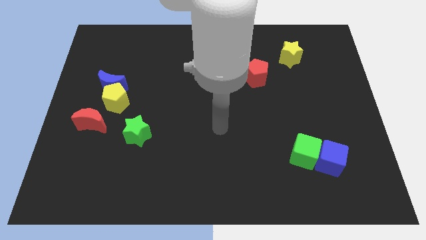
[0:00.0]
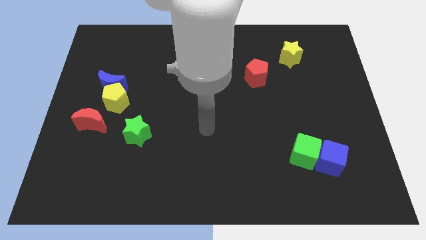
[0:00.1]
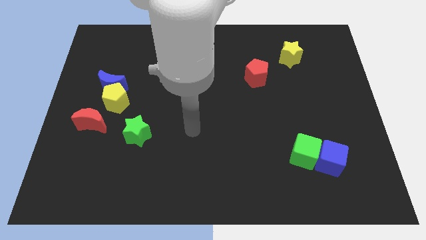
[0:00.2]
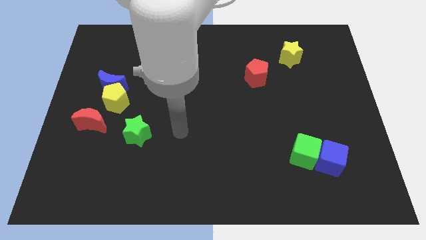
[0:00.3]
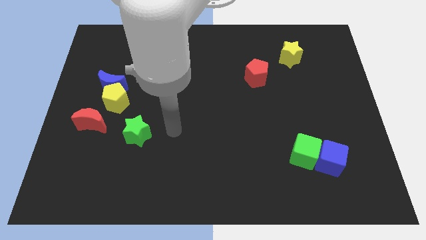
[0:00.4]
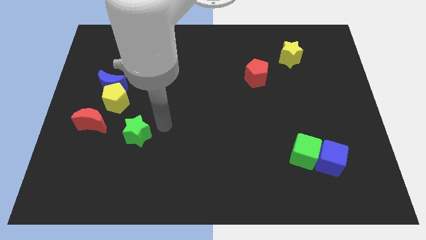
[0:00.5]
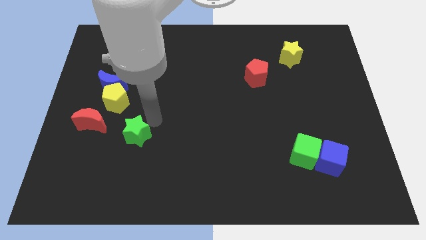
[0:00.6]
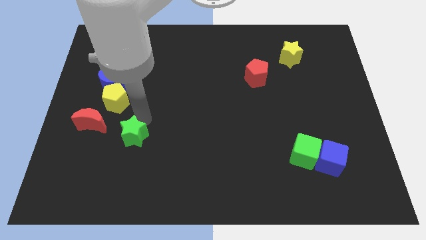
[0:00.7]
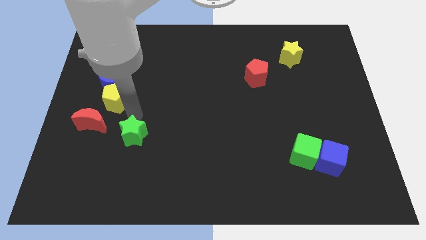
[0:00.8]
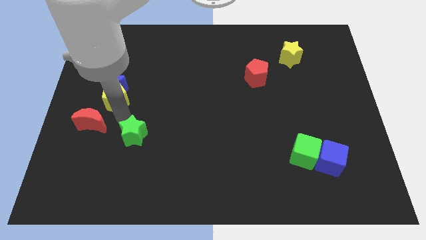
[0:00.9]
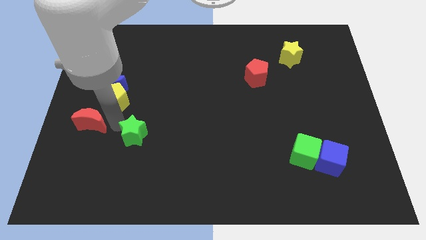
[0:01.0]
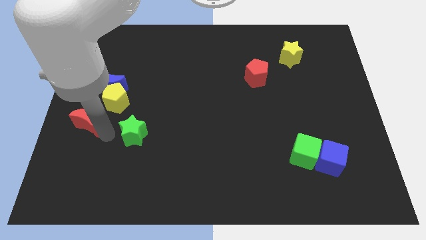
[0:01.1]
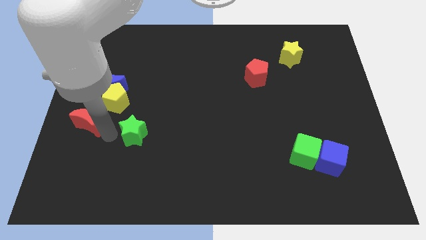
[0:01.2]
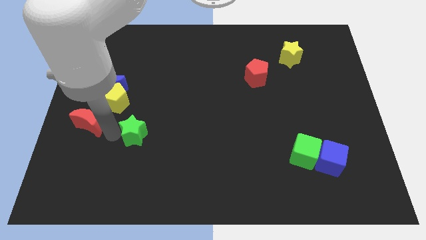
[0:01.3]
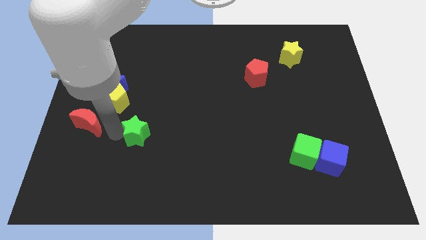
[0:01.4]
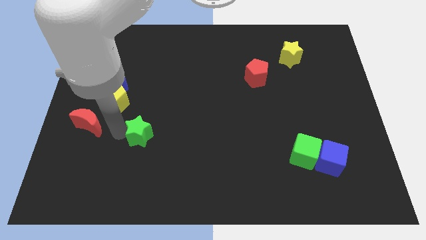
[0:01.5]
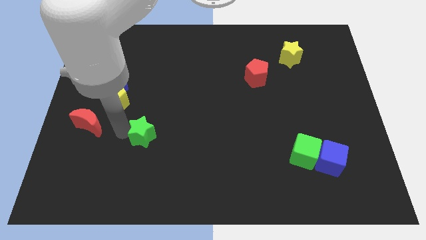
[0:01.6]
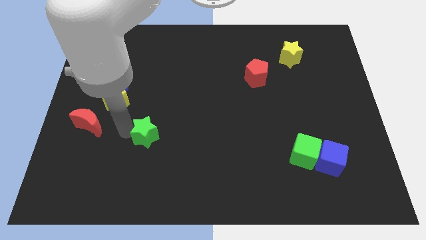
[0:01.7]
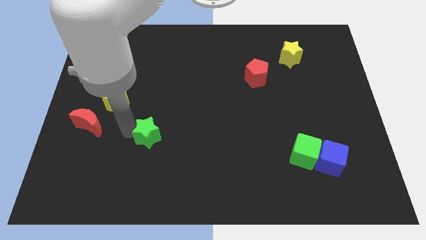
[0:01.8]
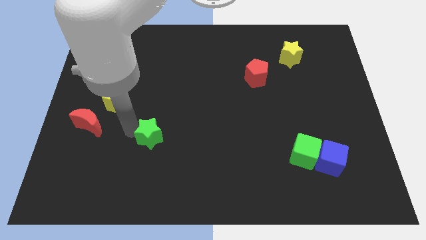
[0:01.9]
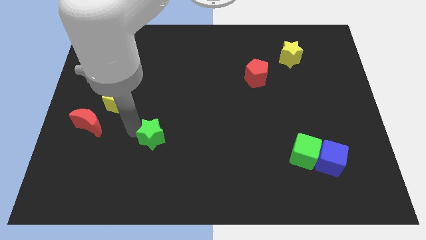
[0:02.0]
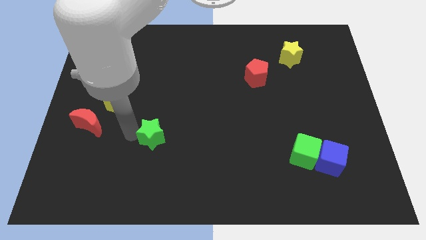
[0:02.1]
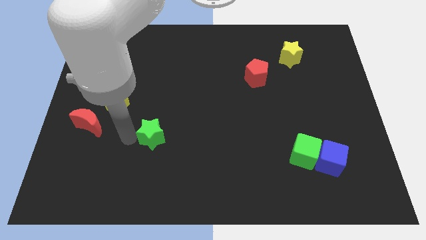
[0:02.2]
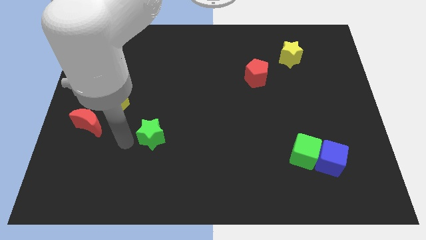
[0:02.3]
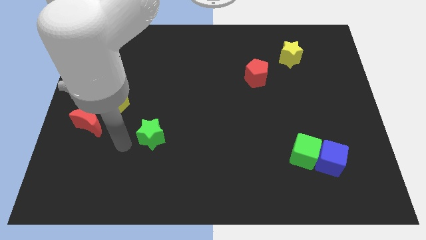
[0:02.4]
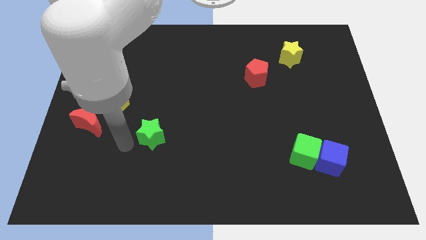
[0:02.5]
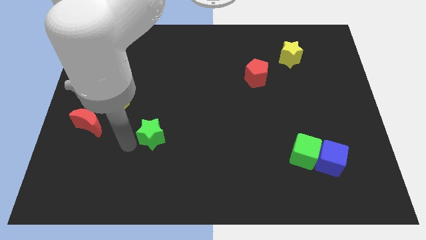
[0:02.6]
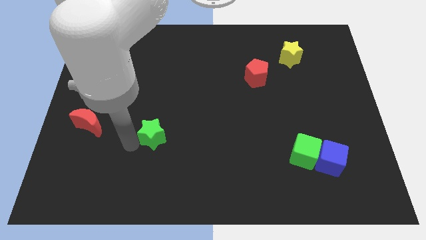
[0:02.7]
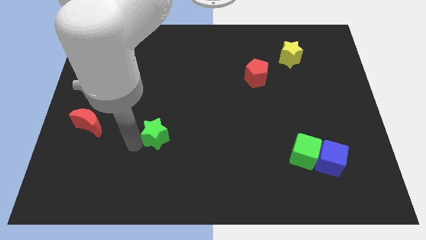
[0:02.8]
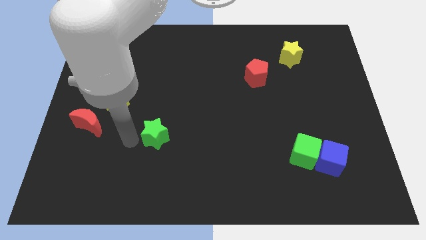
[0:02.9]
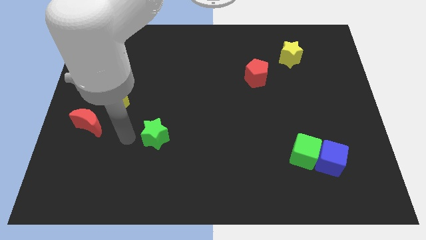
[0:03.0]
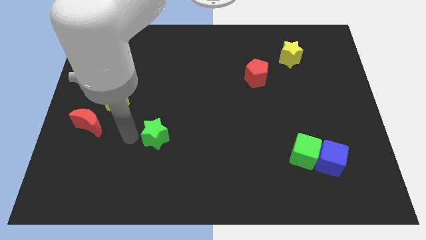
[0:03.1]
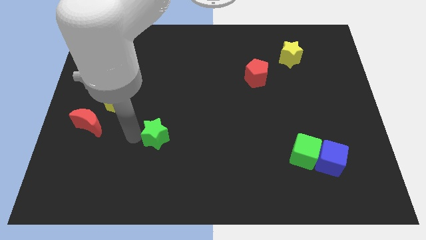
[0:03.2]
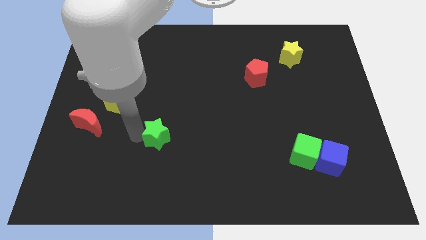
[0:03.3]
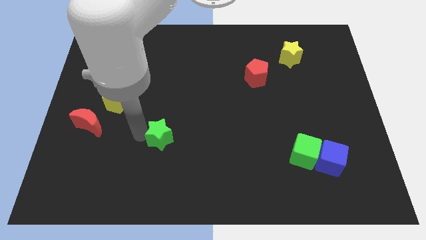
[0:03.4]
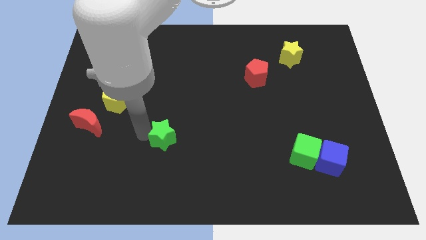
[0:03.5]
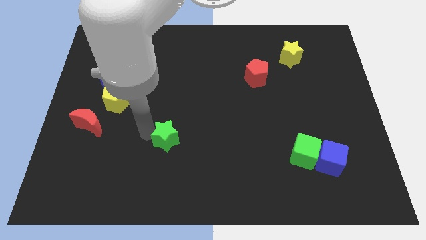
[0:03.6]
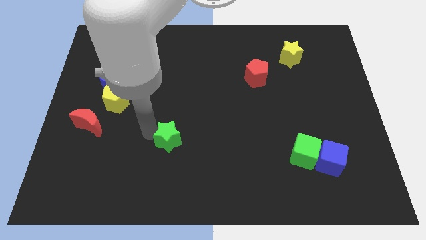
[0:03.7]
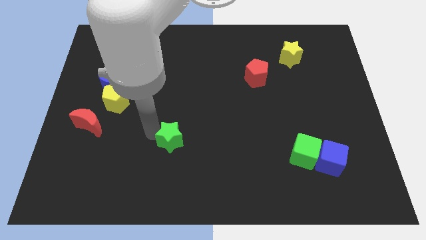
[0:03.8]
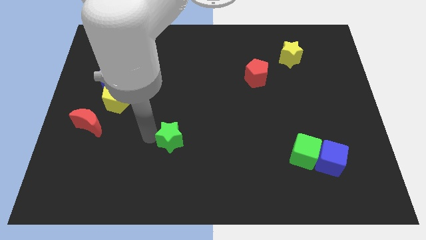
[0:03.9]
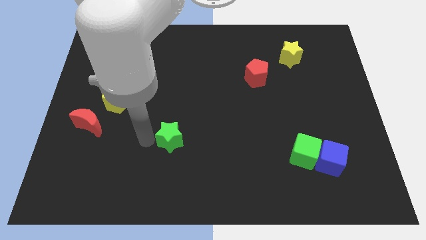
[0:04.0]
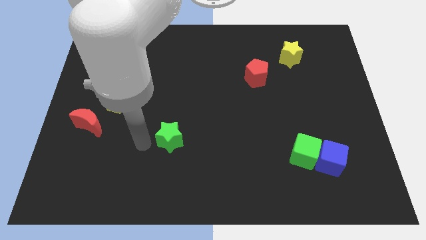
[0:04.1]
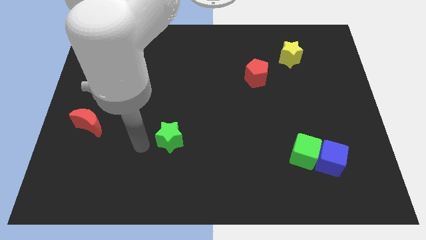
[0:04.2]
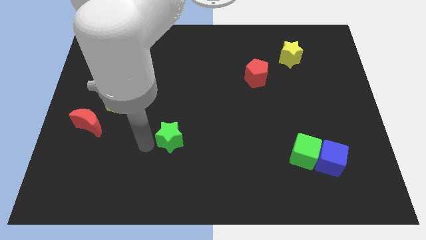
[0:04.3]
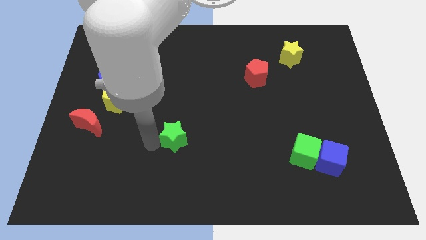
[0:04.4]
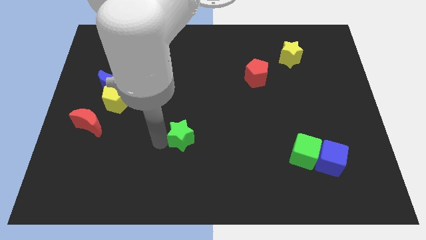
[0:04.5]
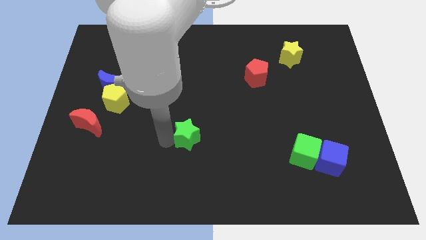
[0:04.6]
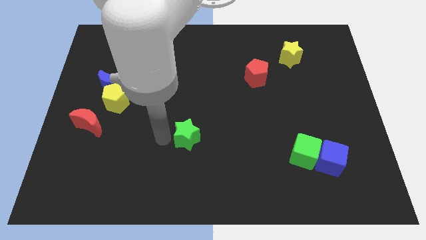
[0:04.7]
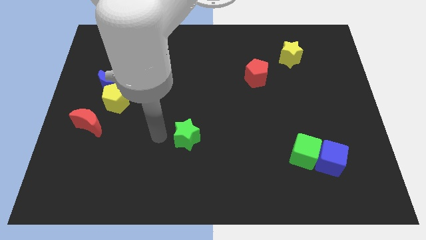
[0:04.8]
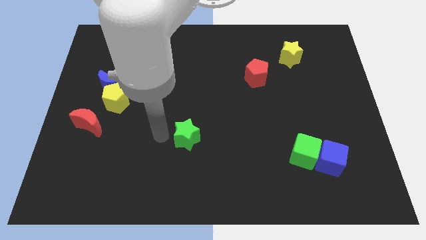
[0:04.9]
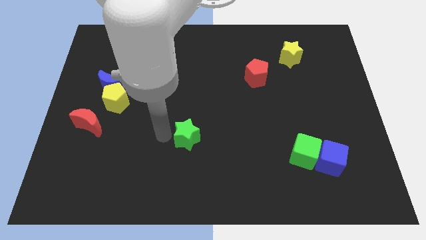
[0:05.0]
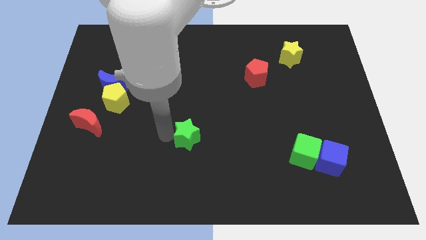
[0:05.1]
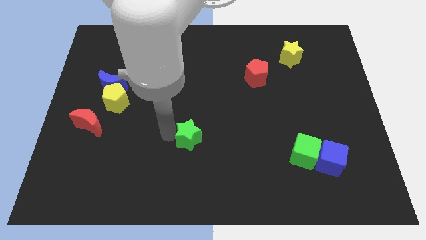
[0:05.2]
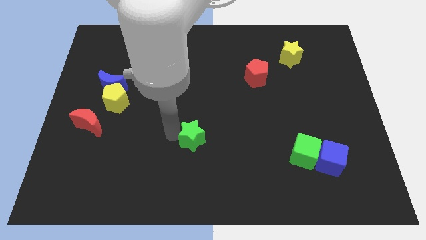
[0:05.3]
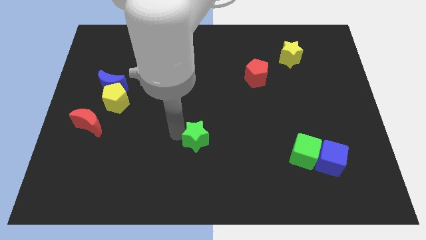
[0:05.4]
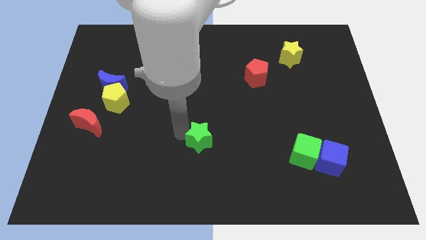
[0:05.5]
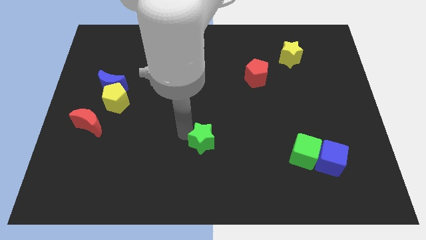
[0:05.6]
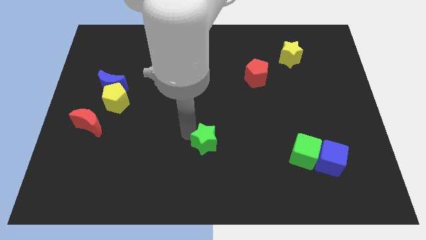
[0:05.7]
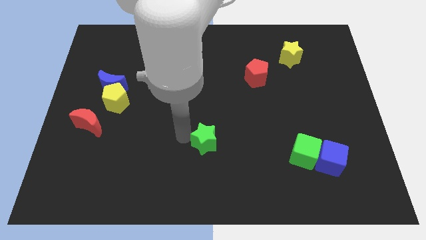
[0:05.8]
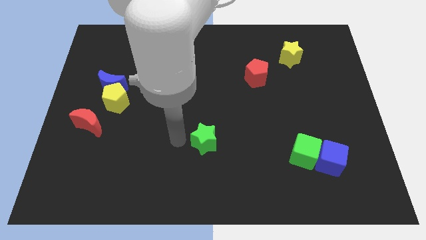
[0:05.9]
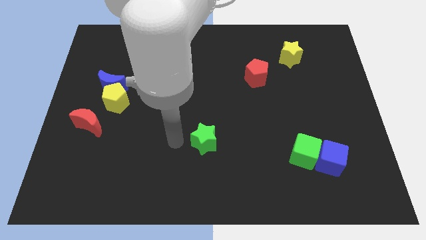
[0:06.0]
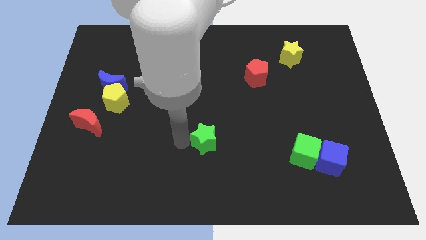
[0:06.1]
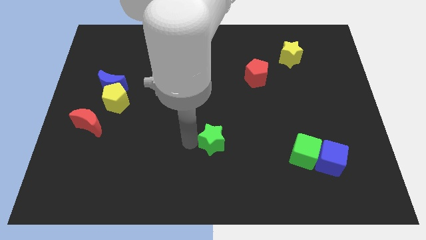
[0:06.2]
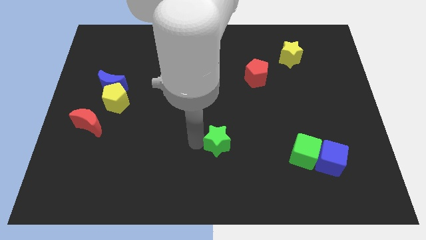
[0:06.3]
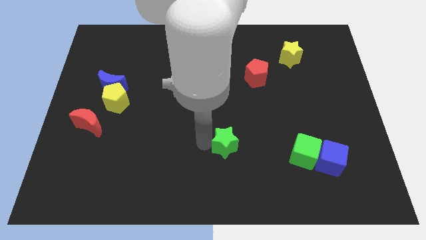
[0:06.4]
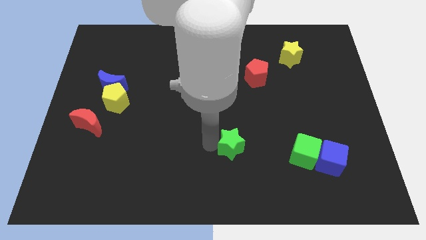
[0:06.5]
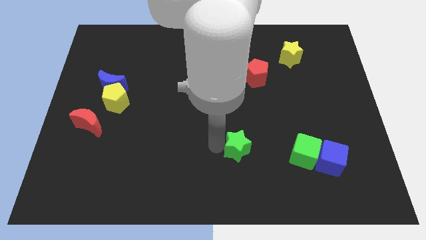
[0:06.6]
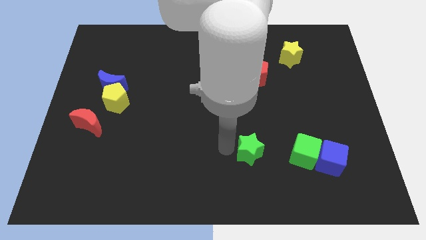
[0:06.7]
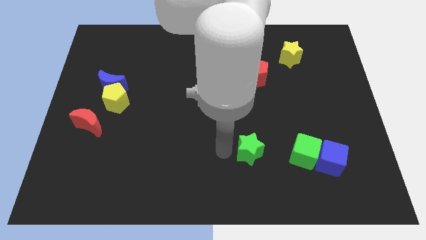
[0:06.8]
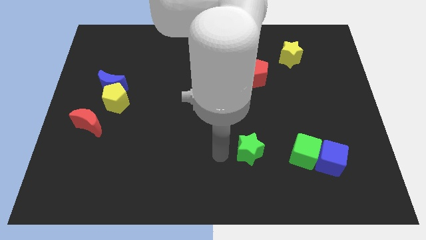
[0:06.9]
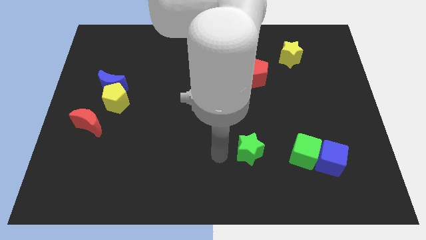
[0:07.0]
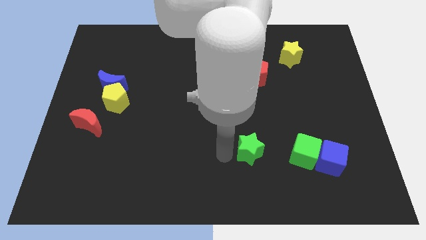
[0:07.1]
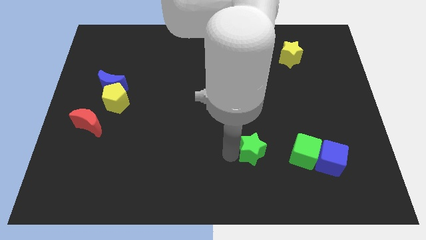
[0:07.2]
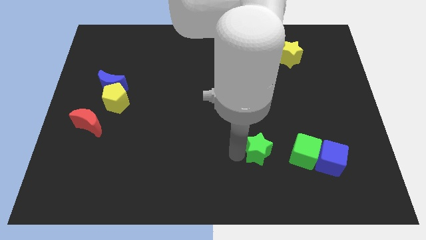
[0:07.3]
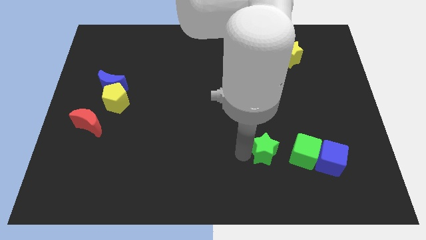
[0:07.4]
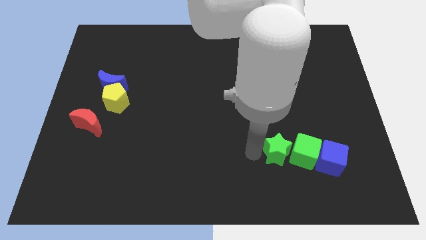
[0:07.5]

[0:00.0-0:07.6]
put the green star next to the green cube
